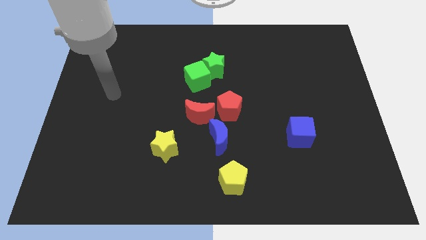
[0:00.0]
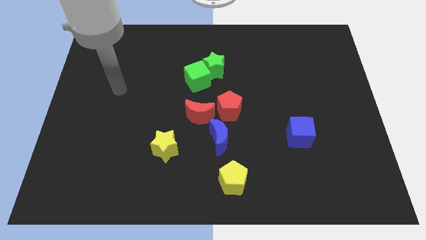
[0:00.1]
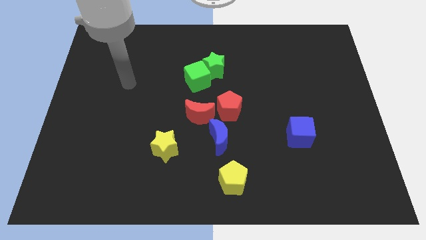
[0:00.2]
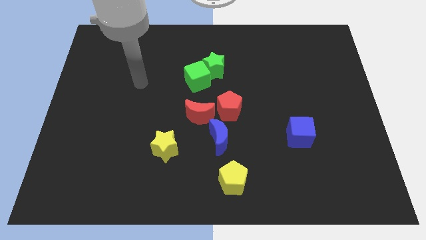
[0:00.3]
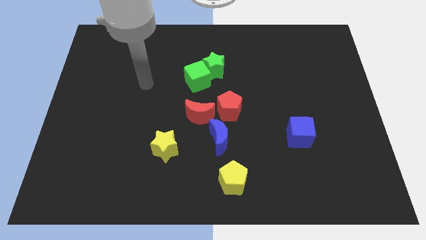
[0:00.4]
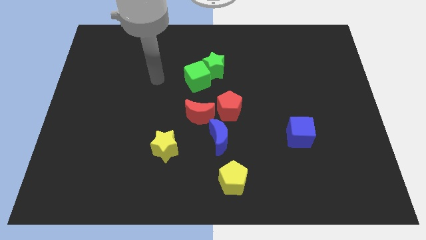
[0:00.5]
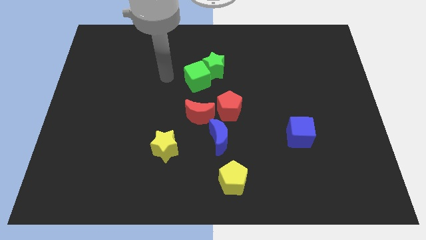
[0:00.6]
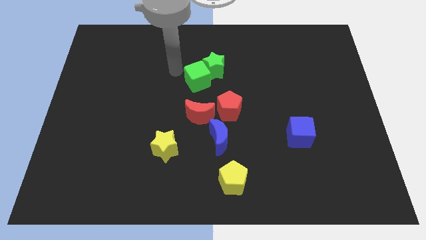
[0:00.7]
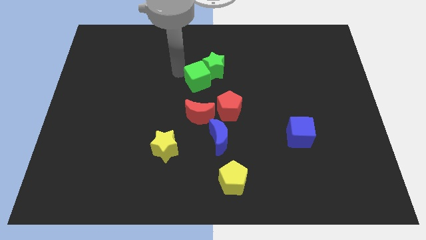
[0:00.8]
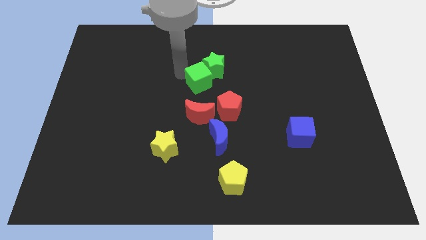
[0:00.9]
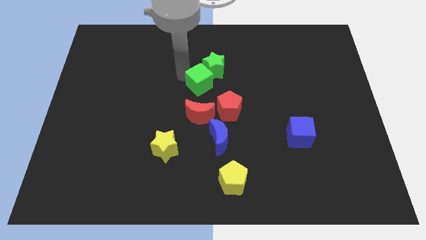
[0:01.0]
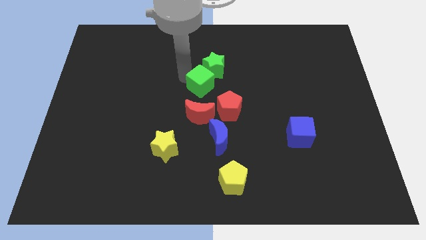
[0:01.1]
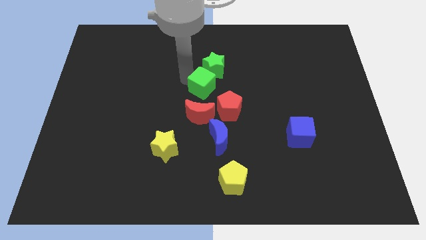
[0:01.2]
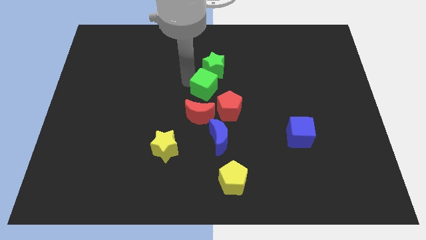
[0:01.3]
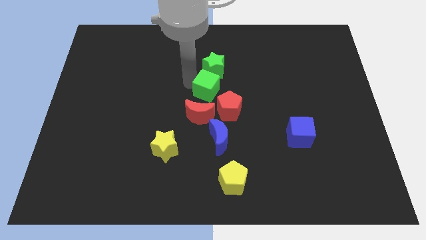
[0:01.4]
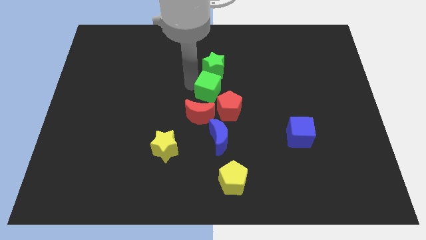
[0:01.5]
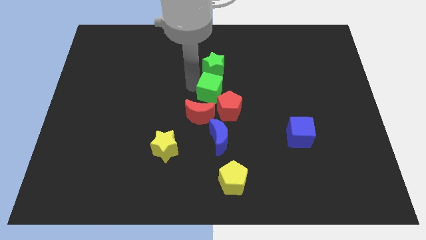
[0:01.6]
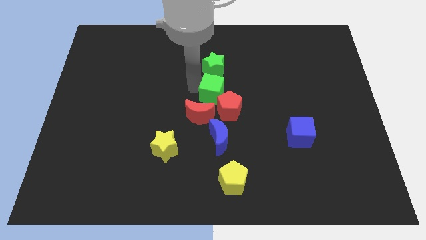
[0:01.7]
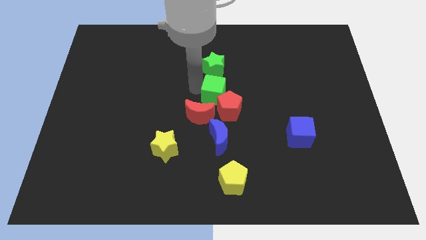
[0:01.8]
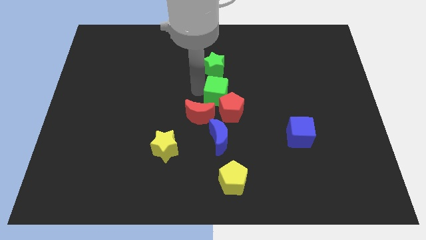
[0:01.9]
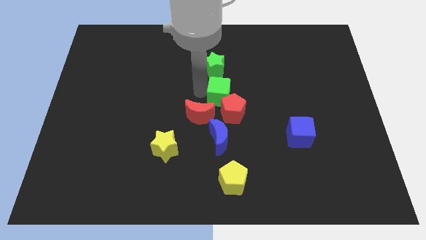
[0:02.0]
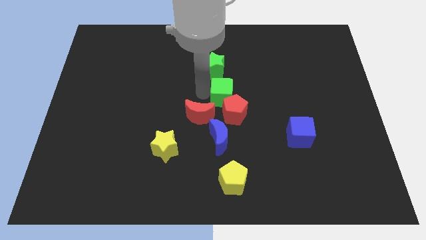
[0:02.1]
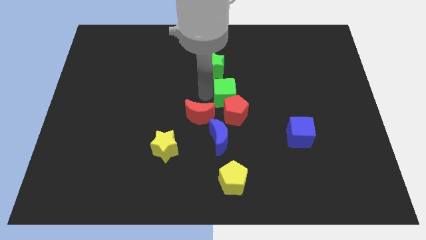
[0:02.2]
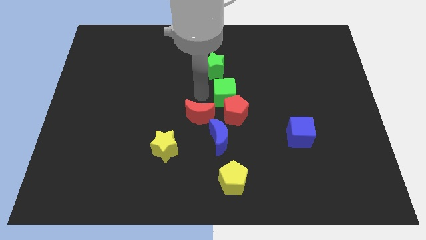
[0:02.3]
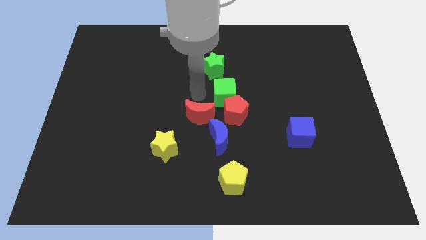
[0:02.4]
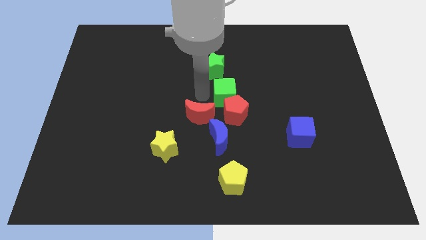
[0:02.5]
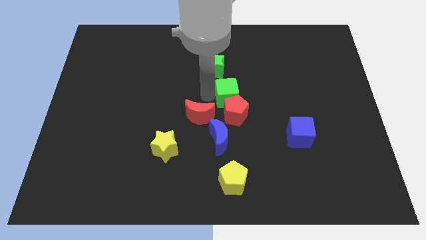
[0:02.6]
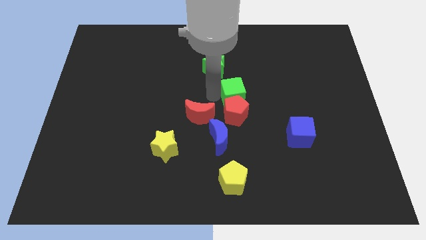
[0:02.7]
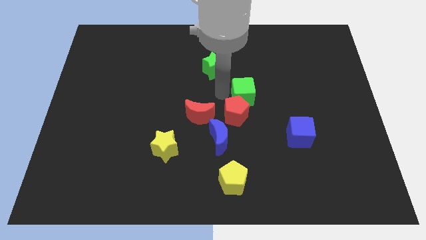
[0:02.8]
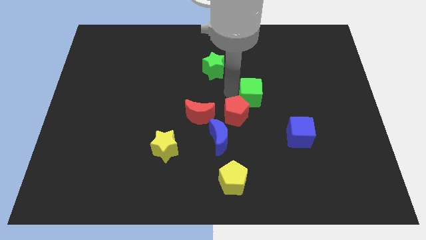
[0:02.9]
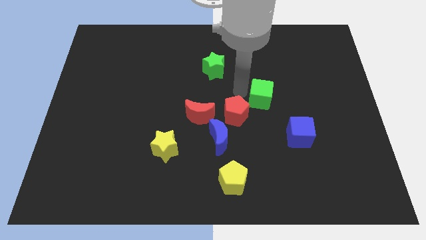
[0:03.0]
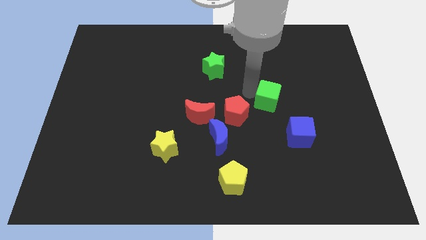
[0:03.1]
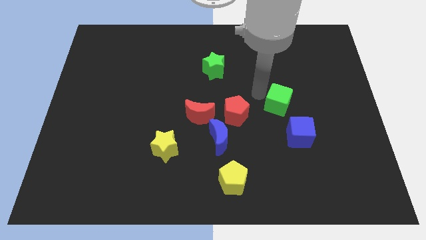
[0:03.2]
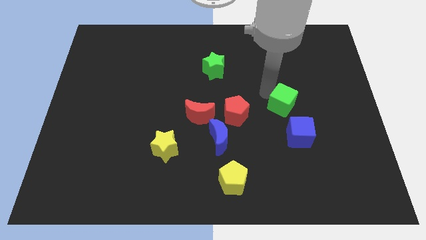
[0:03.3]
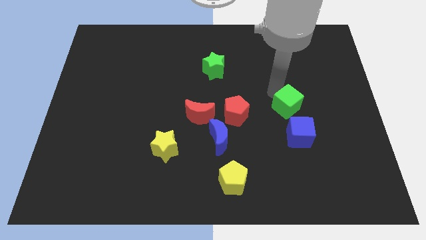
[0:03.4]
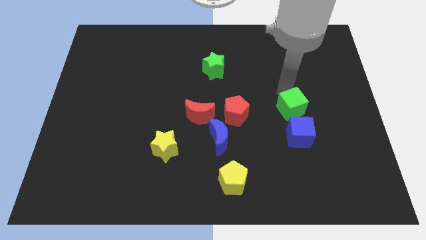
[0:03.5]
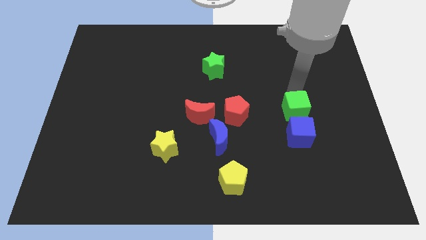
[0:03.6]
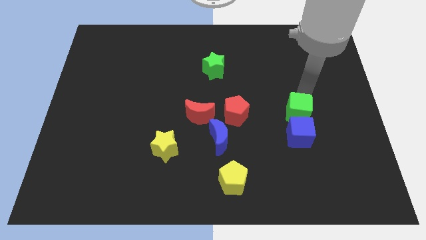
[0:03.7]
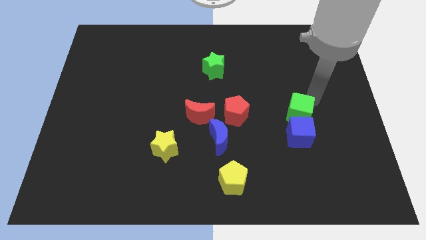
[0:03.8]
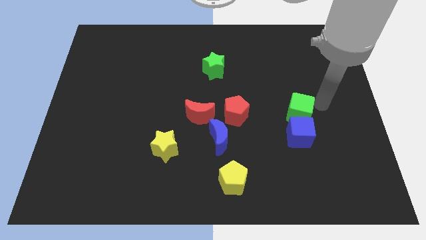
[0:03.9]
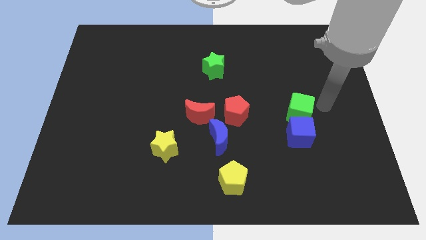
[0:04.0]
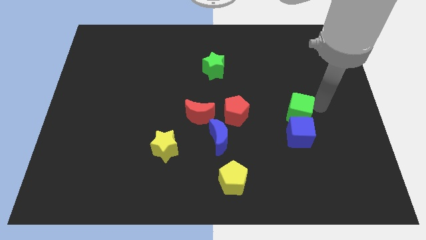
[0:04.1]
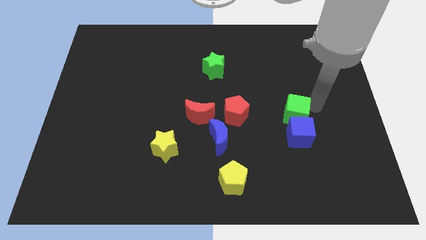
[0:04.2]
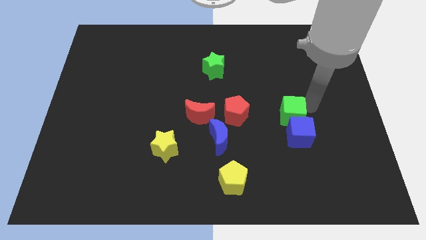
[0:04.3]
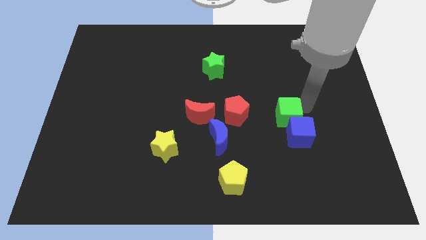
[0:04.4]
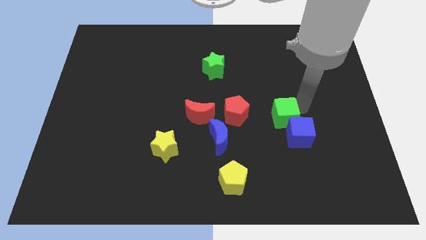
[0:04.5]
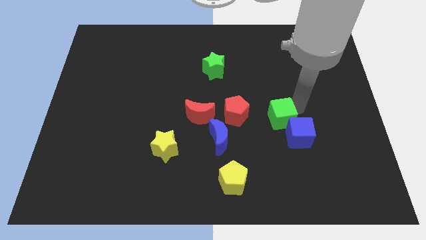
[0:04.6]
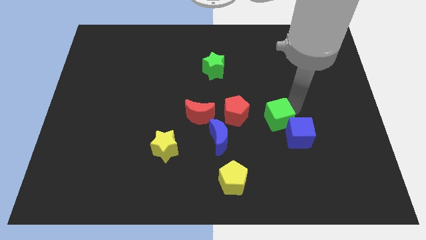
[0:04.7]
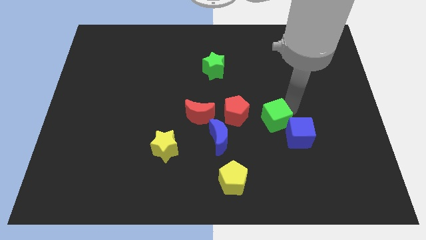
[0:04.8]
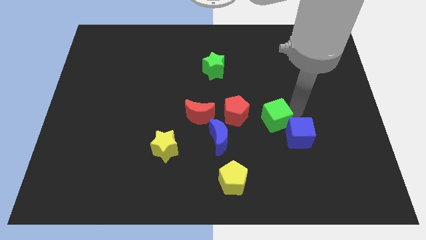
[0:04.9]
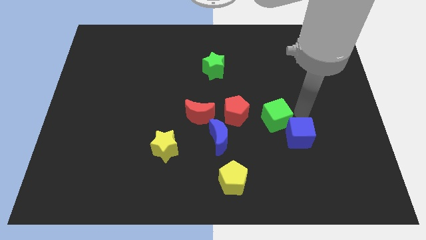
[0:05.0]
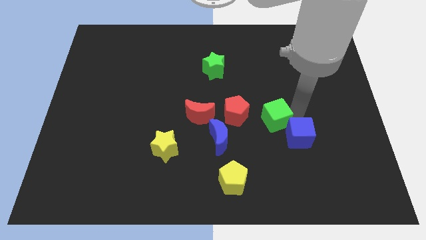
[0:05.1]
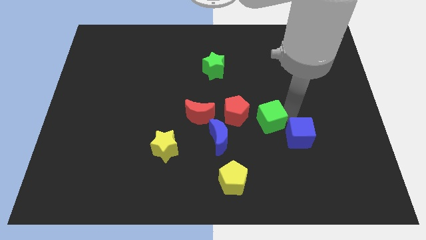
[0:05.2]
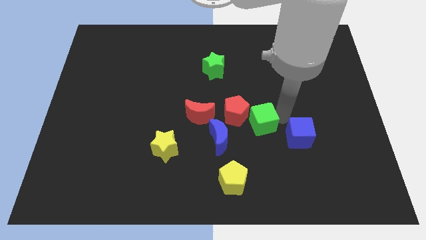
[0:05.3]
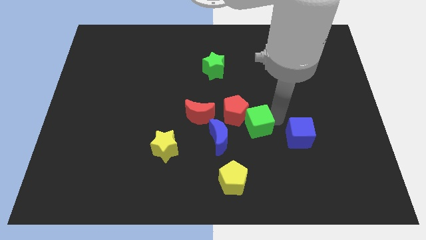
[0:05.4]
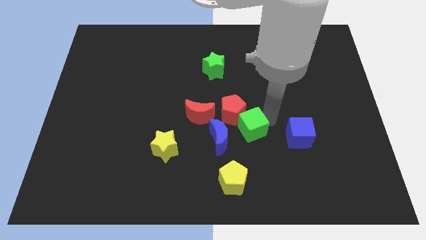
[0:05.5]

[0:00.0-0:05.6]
slide the green cube above the yellow pentagon

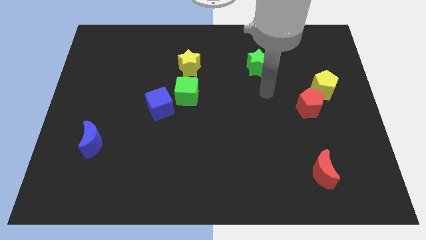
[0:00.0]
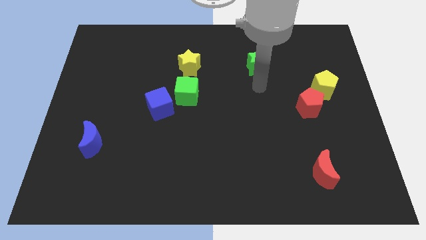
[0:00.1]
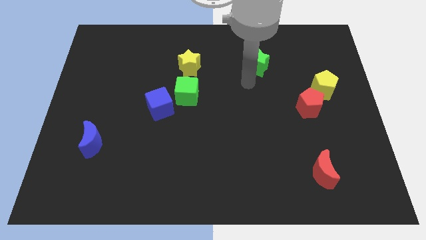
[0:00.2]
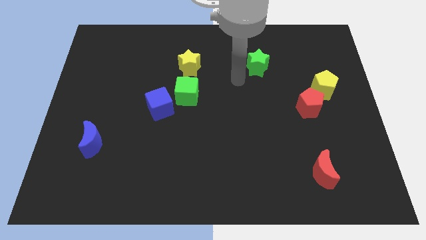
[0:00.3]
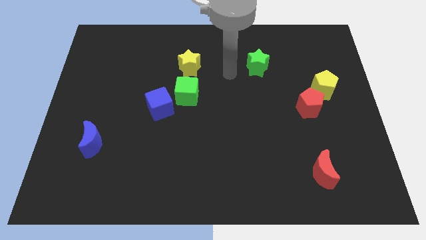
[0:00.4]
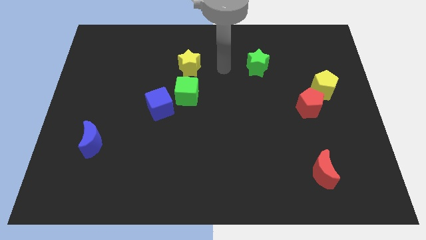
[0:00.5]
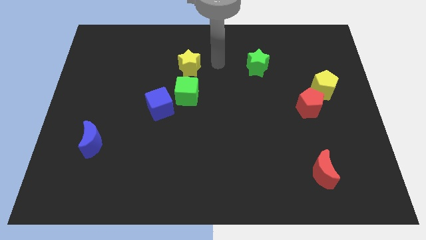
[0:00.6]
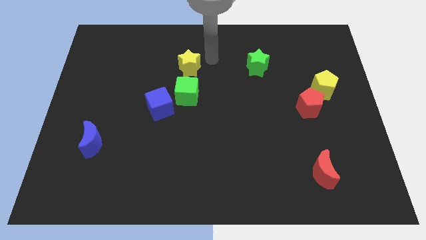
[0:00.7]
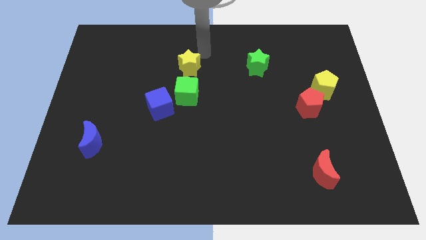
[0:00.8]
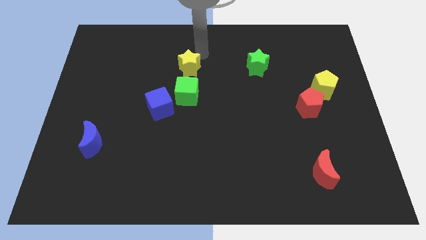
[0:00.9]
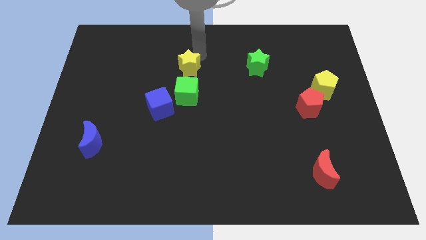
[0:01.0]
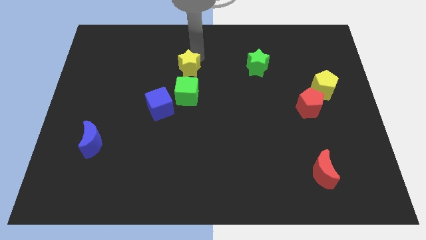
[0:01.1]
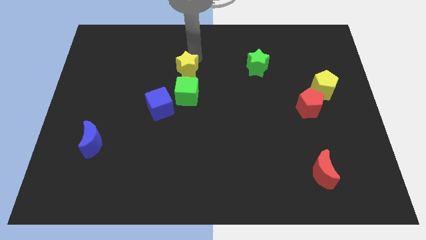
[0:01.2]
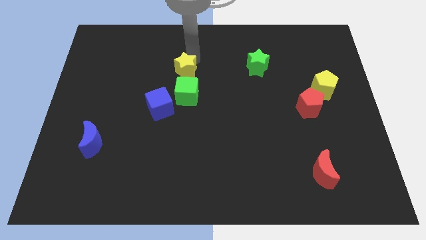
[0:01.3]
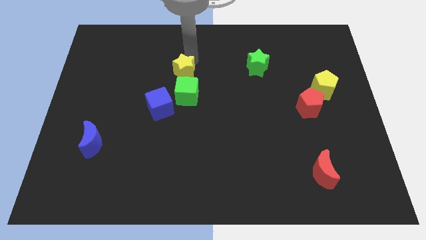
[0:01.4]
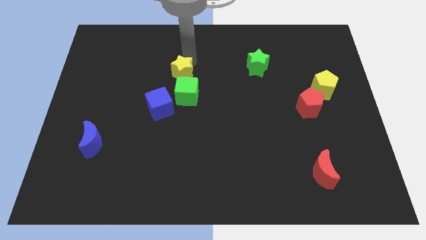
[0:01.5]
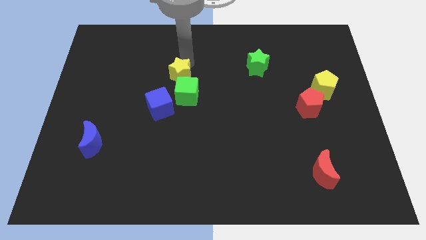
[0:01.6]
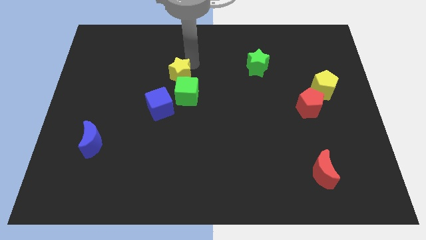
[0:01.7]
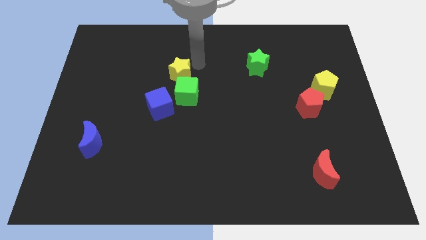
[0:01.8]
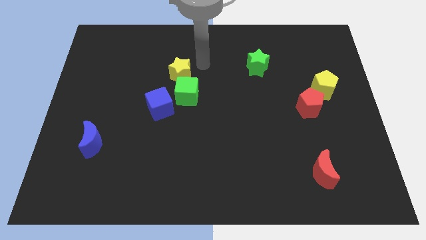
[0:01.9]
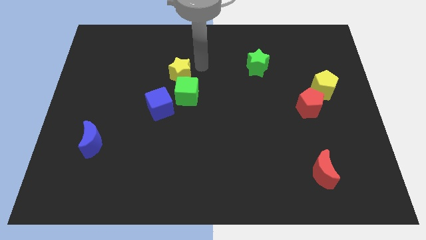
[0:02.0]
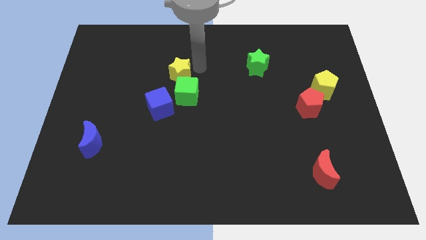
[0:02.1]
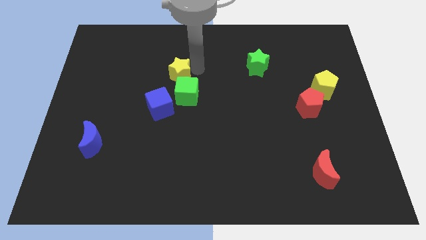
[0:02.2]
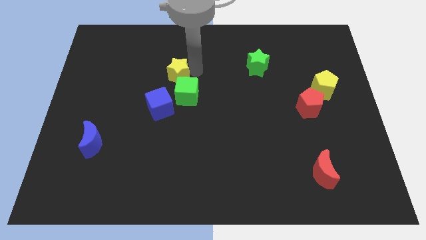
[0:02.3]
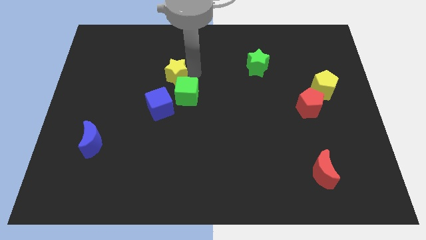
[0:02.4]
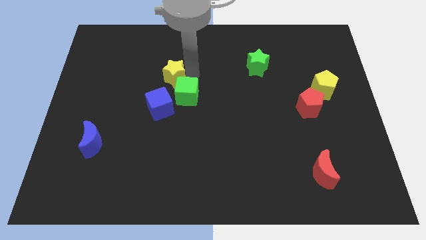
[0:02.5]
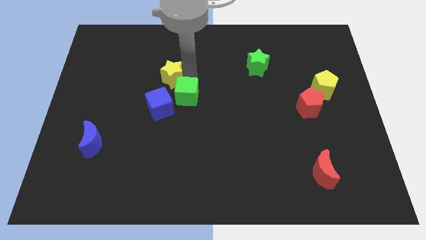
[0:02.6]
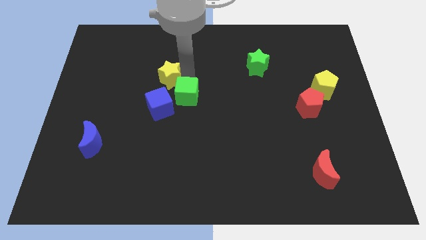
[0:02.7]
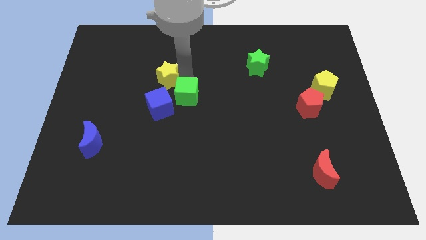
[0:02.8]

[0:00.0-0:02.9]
put the yellow star just left of the green cube

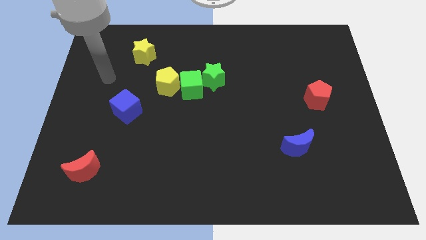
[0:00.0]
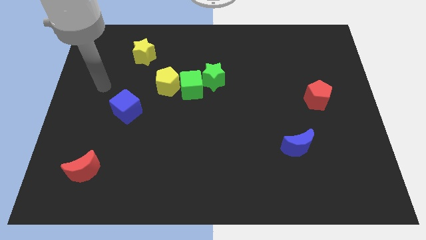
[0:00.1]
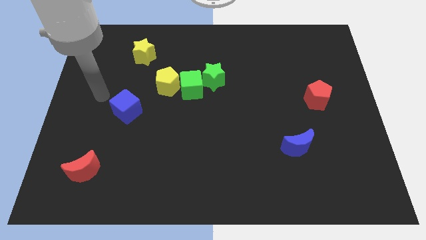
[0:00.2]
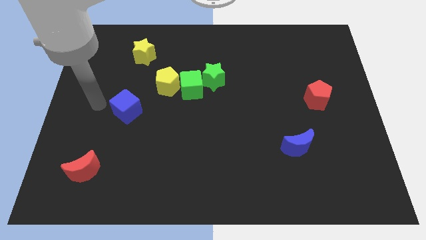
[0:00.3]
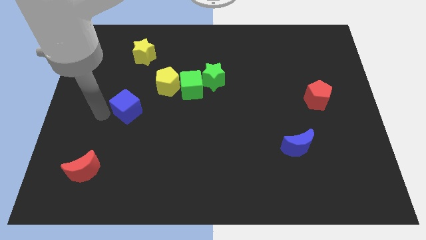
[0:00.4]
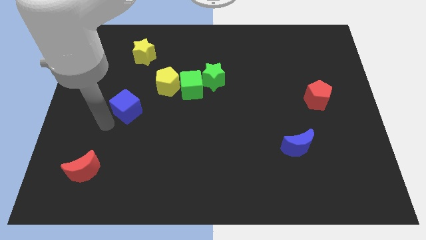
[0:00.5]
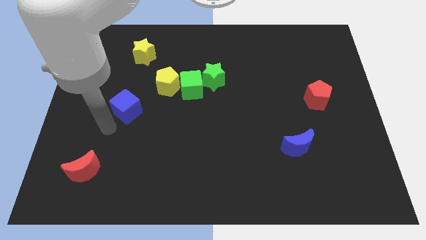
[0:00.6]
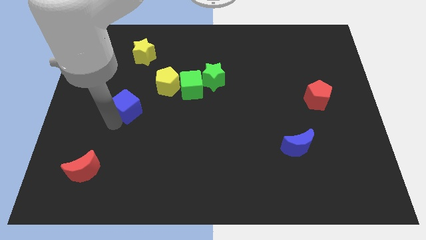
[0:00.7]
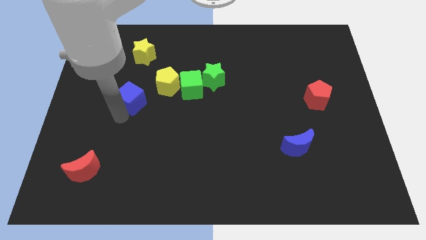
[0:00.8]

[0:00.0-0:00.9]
slide the blue cube just left of the green cube
